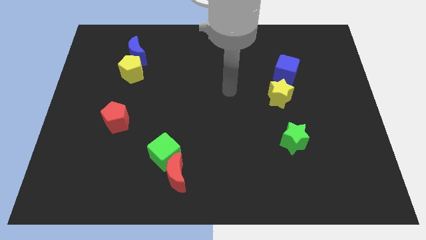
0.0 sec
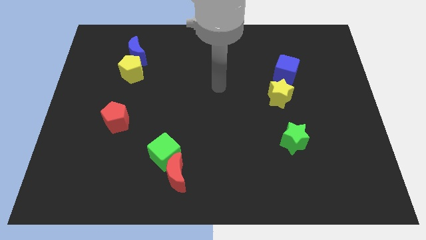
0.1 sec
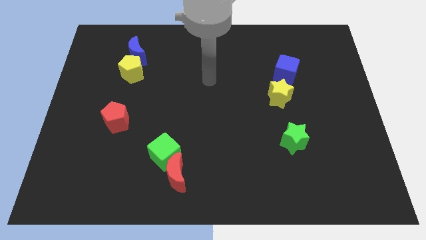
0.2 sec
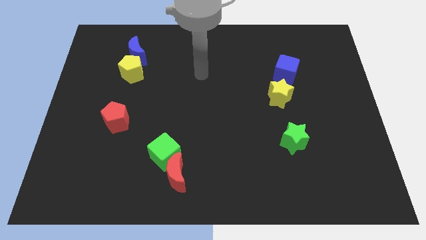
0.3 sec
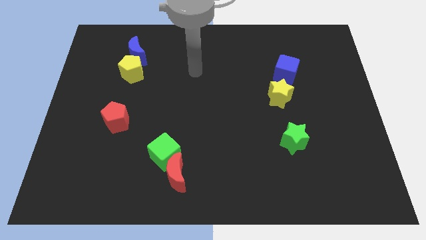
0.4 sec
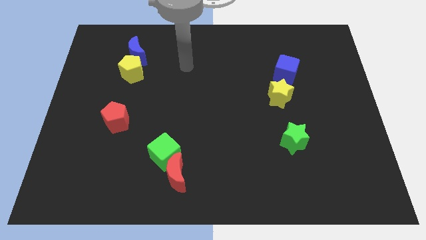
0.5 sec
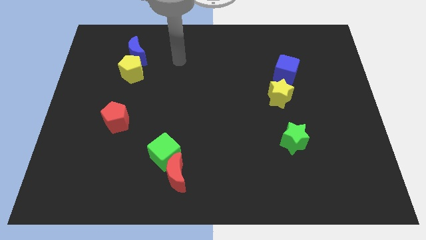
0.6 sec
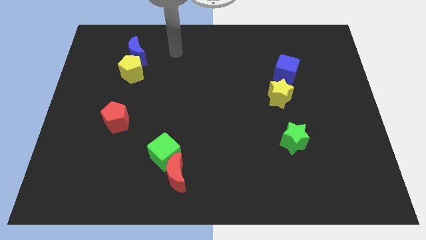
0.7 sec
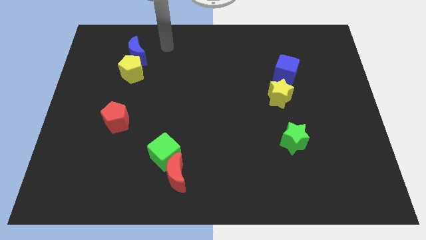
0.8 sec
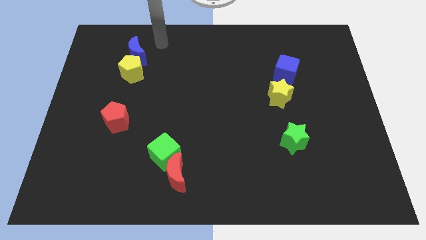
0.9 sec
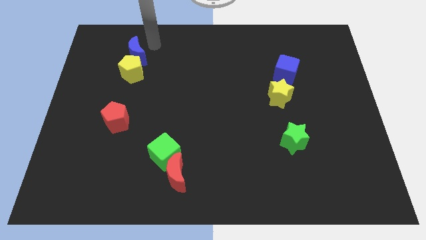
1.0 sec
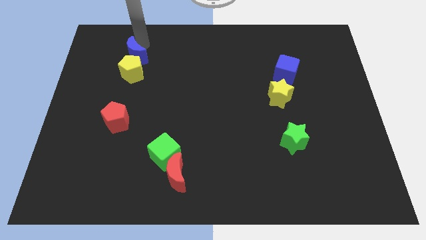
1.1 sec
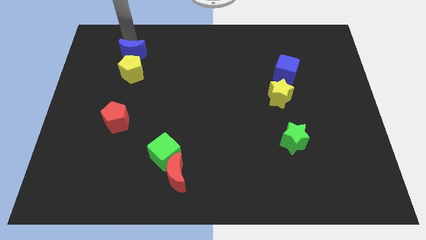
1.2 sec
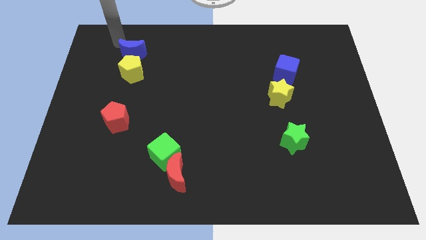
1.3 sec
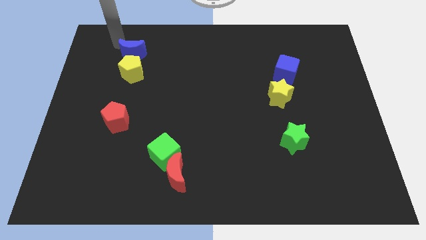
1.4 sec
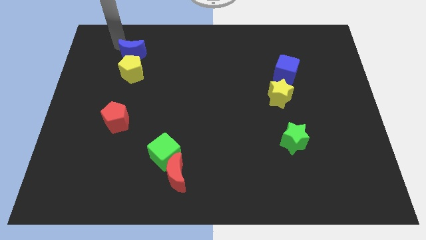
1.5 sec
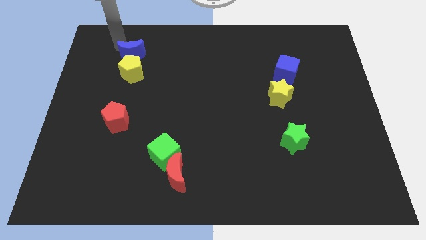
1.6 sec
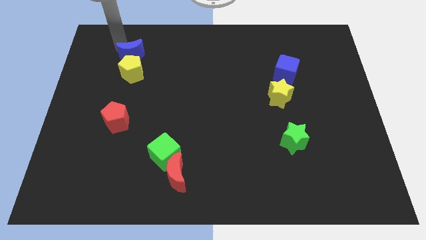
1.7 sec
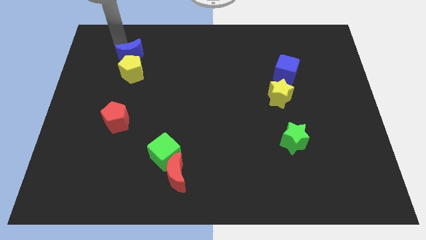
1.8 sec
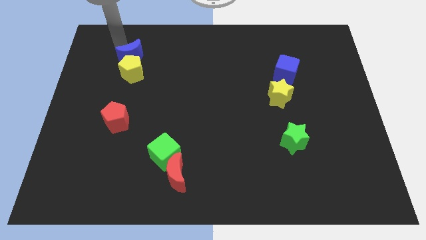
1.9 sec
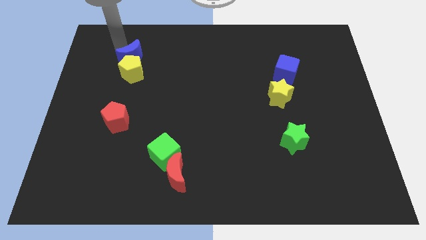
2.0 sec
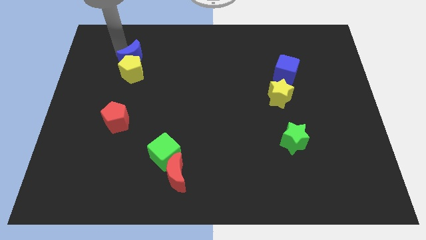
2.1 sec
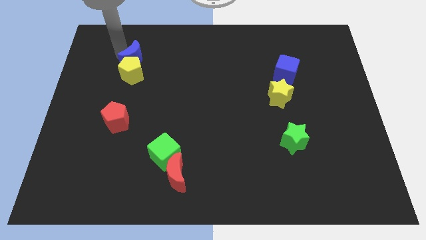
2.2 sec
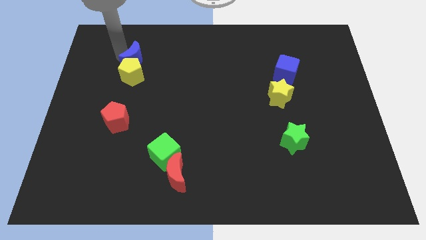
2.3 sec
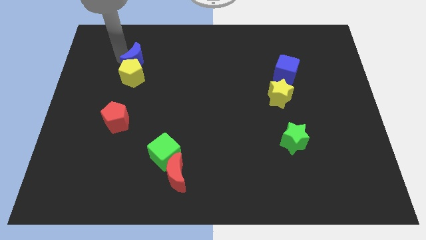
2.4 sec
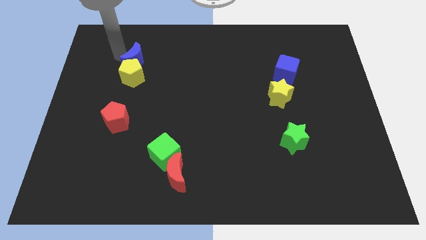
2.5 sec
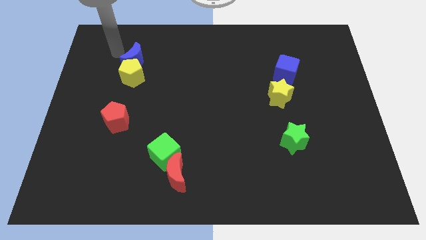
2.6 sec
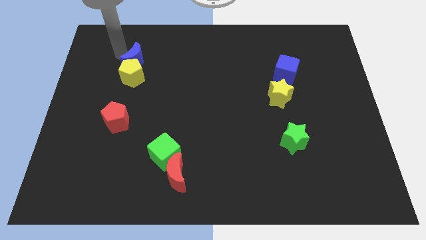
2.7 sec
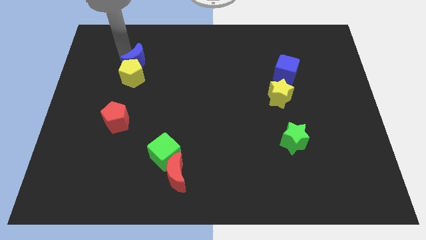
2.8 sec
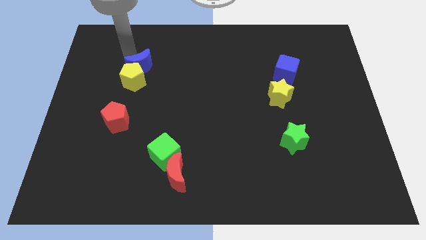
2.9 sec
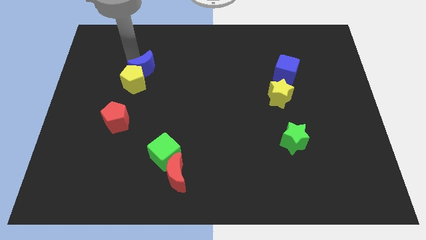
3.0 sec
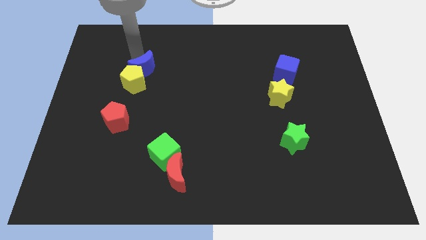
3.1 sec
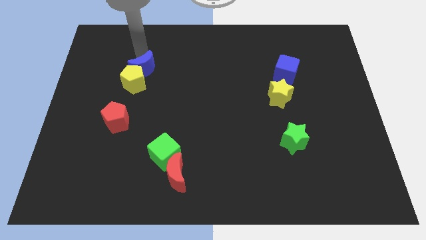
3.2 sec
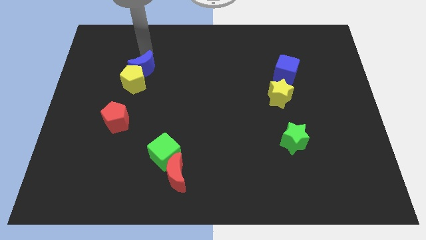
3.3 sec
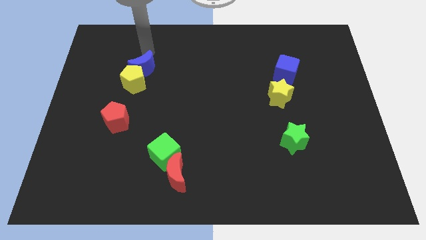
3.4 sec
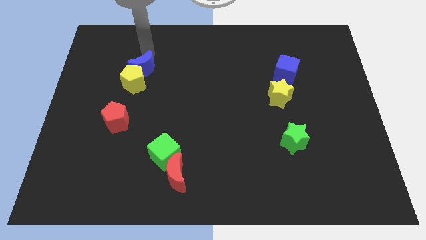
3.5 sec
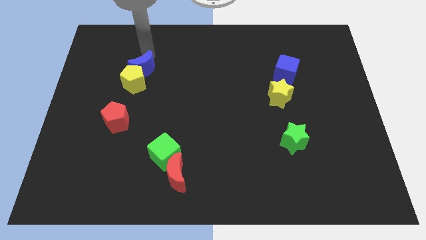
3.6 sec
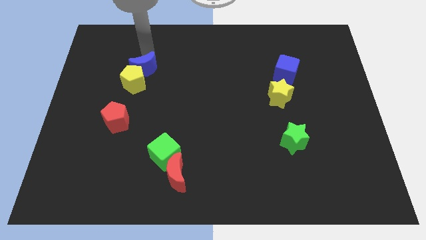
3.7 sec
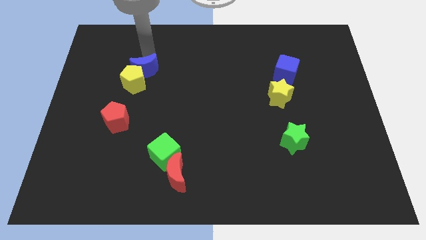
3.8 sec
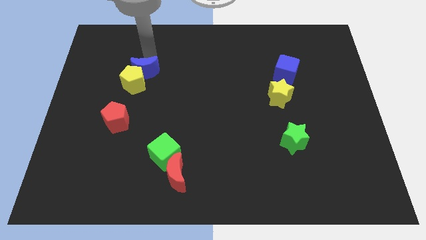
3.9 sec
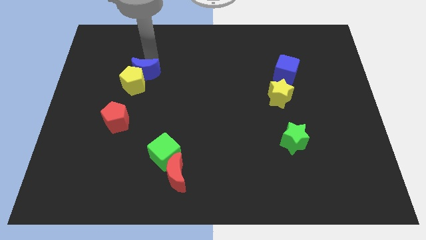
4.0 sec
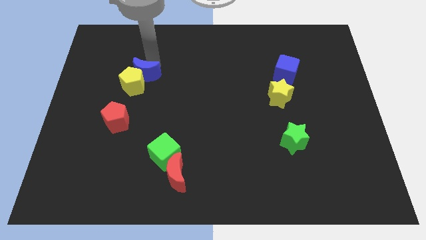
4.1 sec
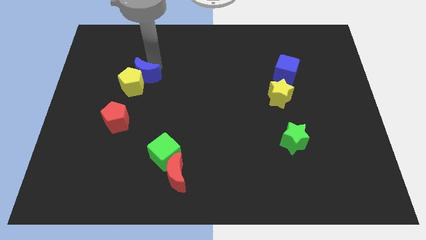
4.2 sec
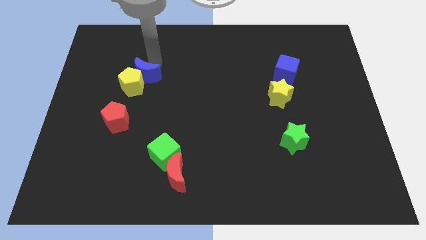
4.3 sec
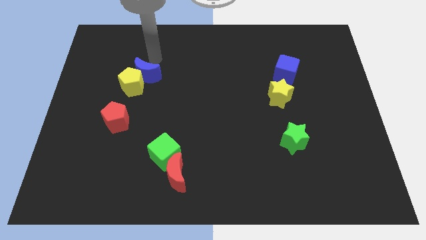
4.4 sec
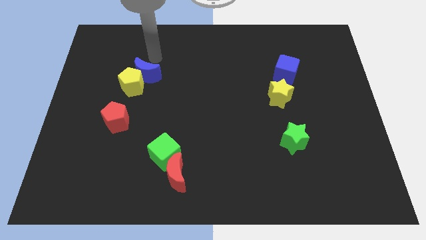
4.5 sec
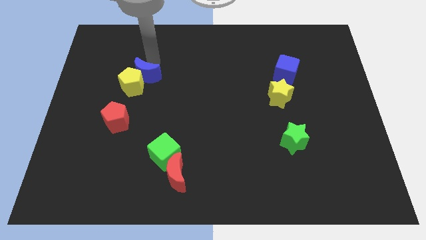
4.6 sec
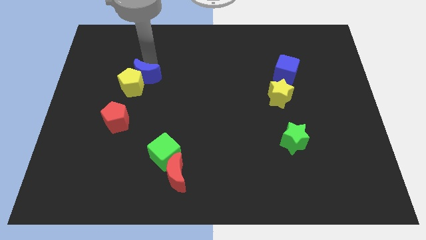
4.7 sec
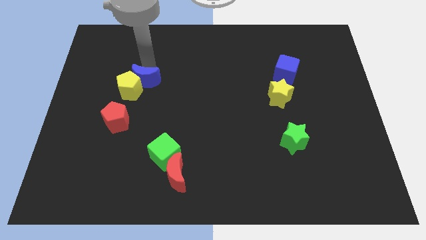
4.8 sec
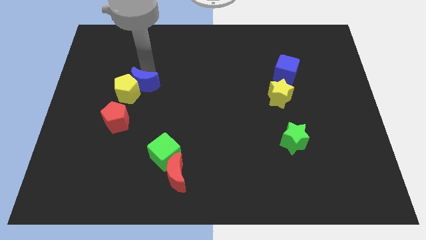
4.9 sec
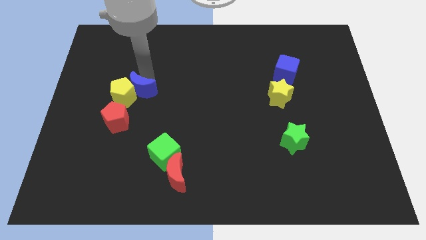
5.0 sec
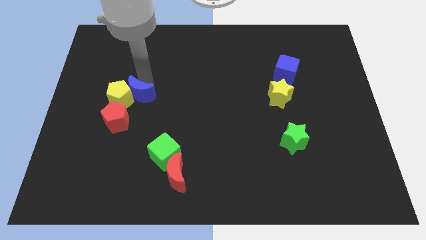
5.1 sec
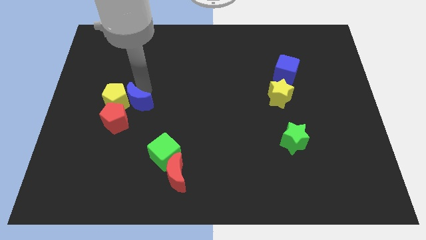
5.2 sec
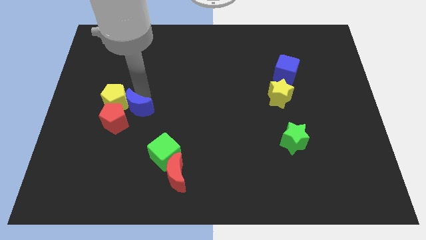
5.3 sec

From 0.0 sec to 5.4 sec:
slide the blue moon to the red pentagon

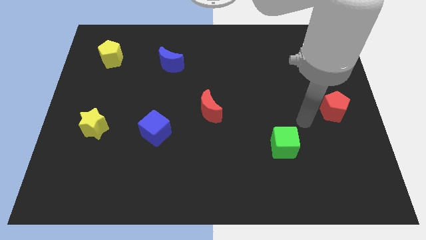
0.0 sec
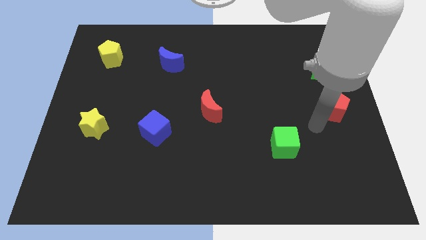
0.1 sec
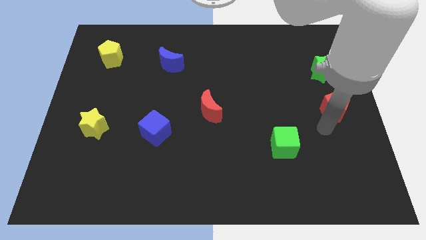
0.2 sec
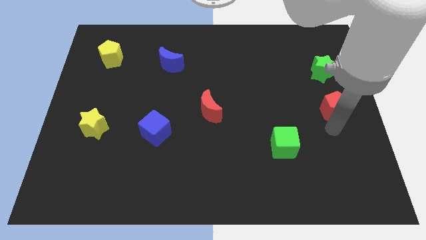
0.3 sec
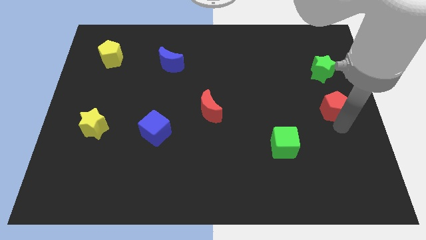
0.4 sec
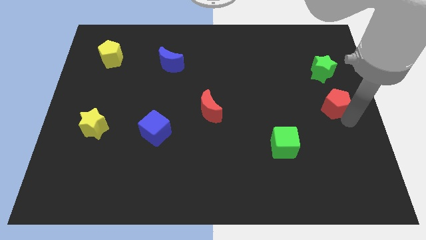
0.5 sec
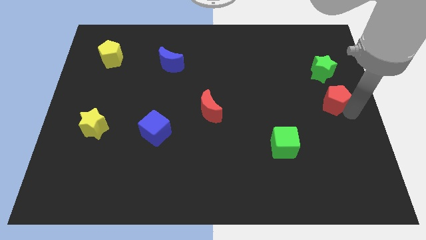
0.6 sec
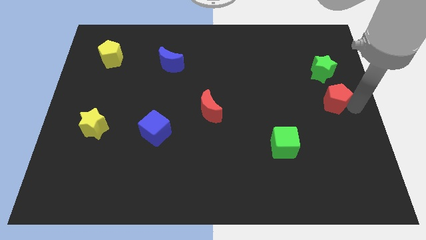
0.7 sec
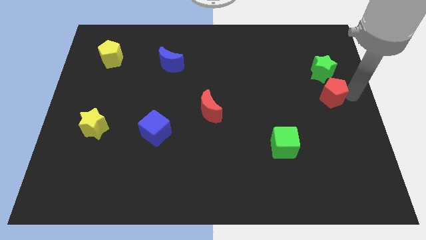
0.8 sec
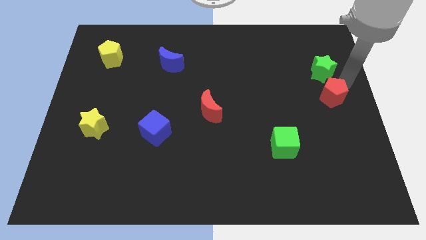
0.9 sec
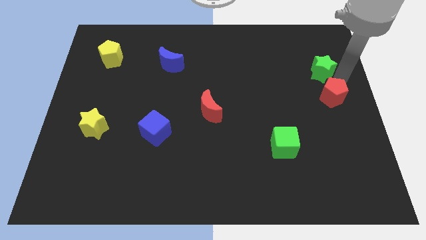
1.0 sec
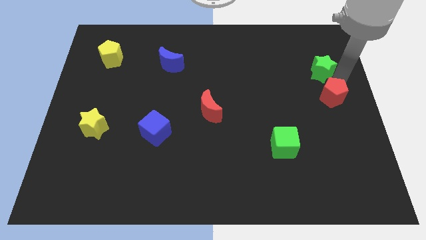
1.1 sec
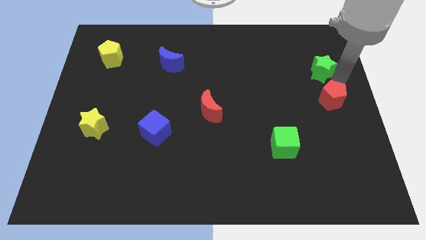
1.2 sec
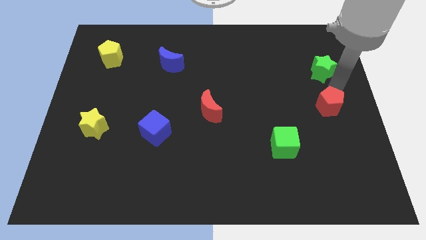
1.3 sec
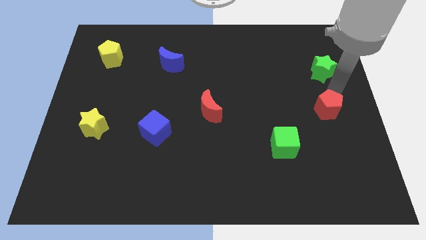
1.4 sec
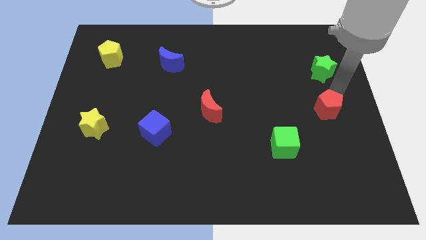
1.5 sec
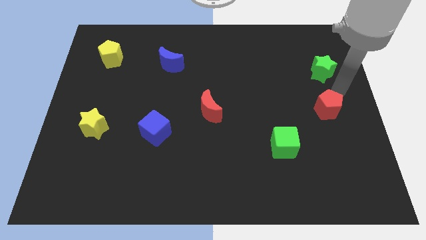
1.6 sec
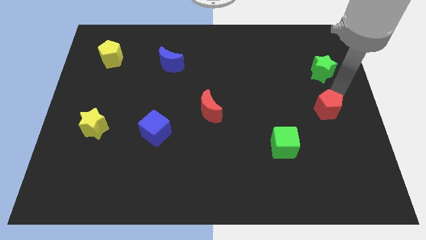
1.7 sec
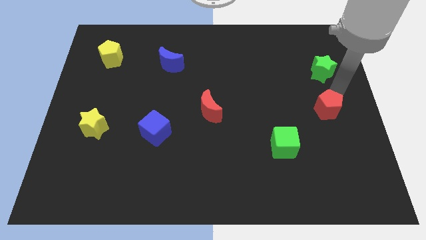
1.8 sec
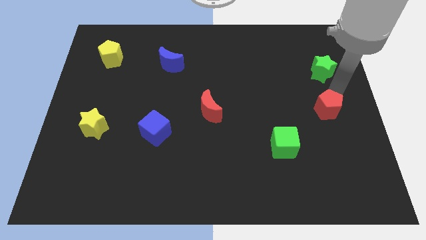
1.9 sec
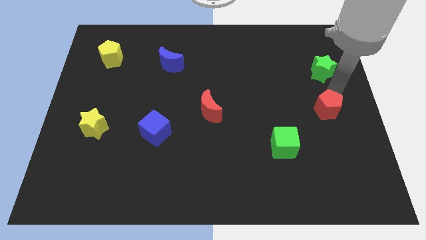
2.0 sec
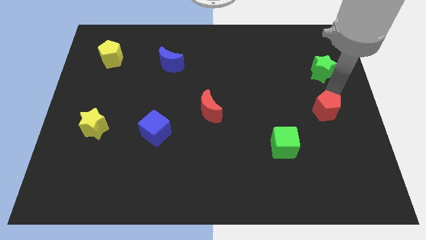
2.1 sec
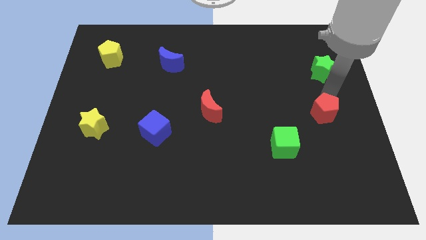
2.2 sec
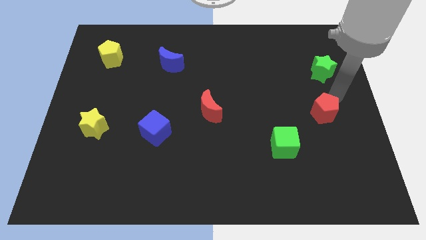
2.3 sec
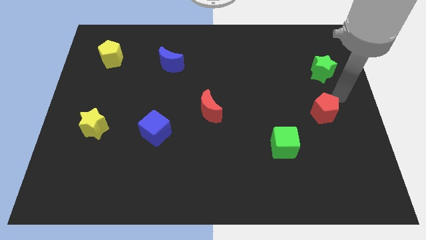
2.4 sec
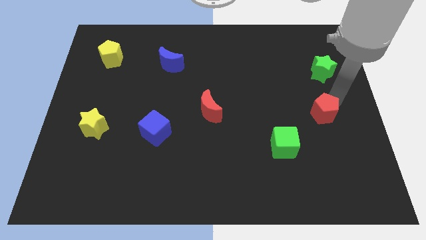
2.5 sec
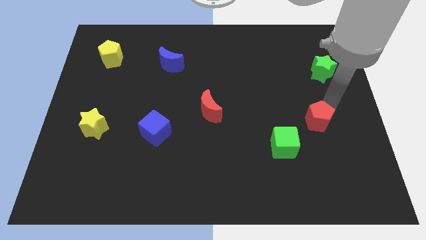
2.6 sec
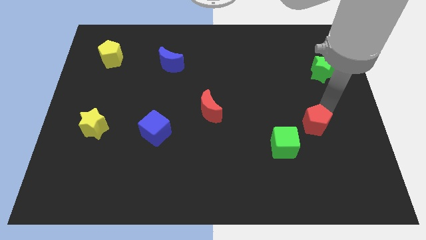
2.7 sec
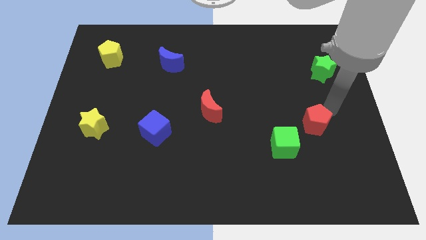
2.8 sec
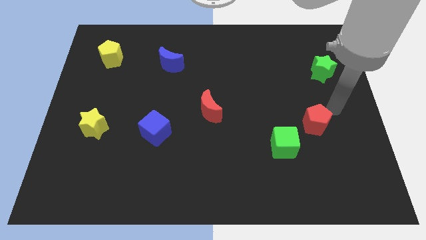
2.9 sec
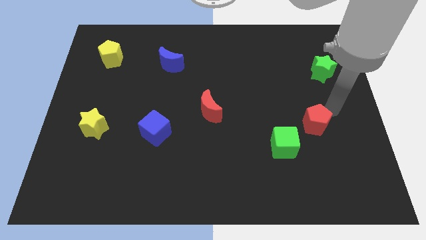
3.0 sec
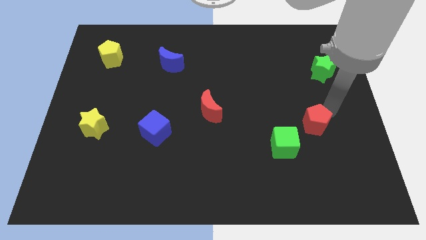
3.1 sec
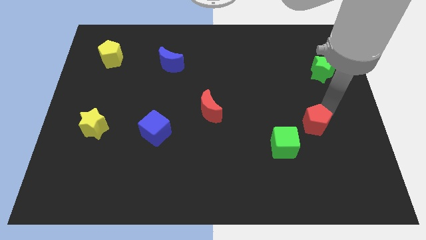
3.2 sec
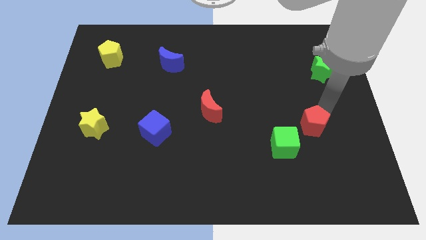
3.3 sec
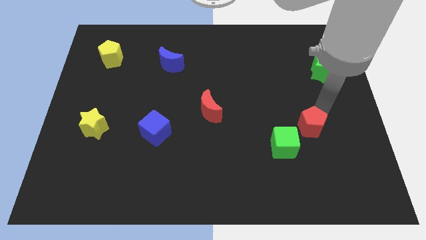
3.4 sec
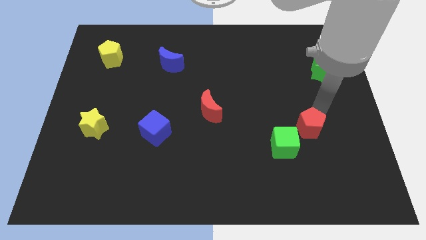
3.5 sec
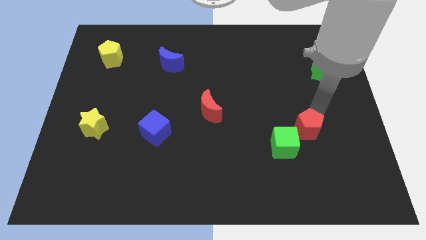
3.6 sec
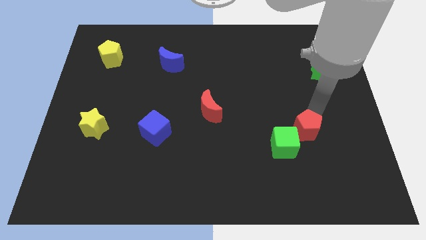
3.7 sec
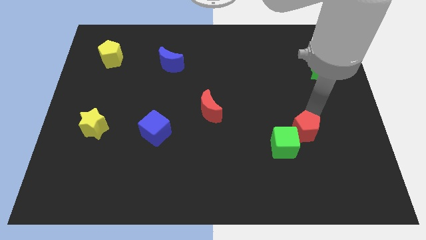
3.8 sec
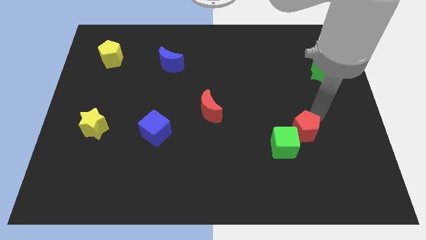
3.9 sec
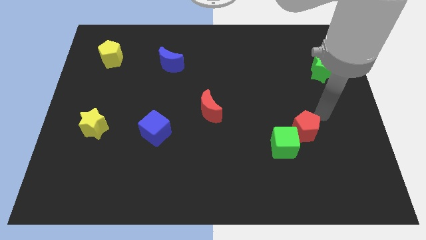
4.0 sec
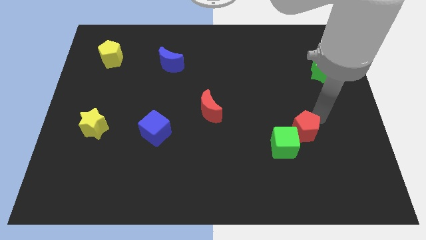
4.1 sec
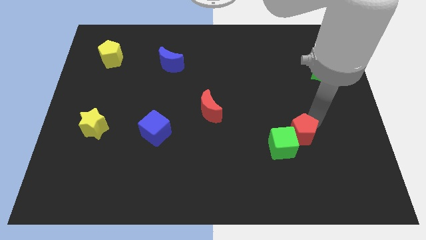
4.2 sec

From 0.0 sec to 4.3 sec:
put the red pentagon close to the green cube
